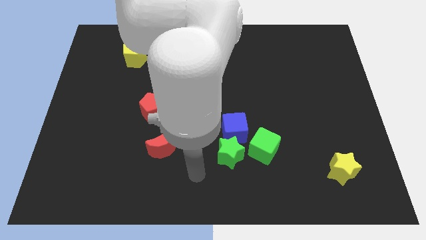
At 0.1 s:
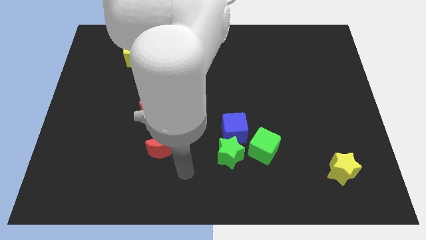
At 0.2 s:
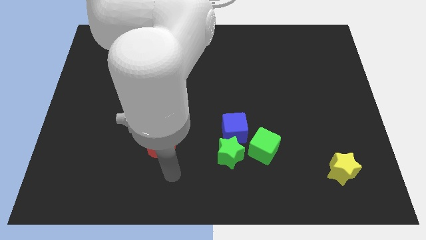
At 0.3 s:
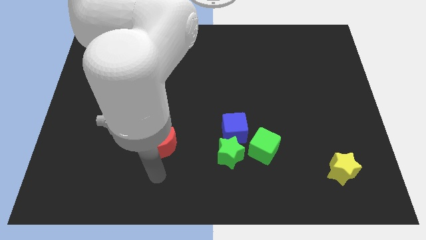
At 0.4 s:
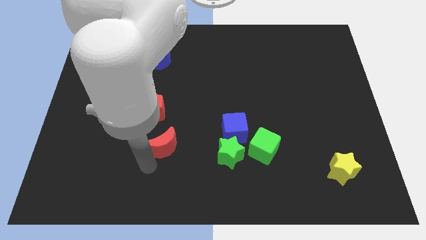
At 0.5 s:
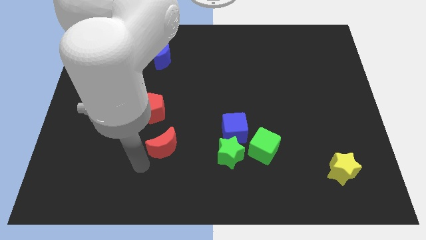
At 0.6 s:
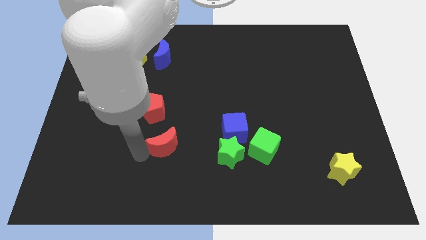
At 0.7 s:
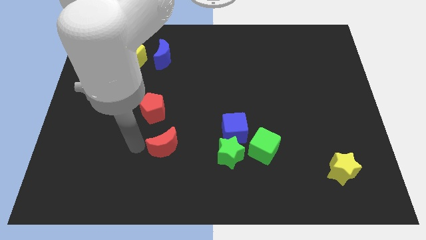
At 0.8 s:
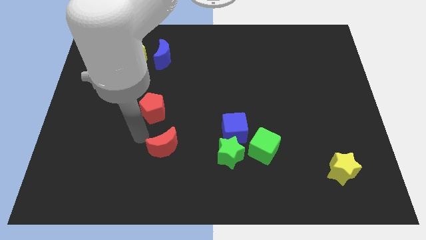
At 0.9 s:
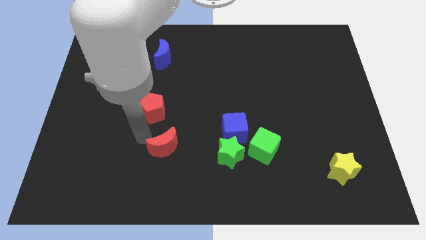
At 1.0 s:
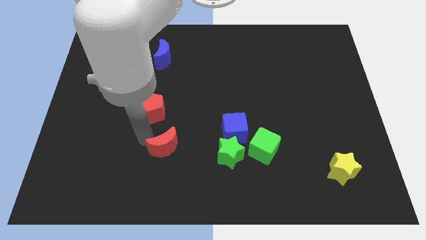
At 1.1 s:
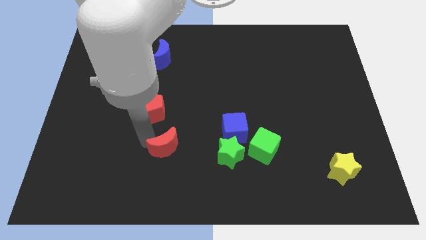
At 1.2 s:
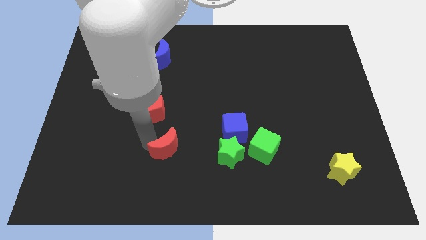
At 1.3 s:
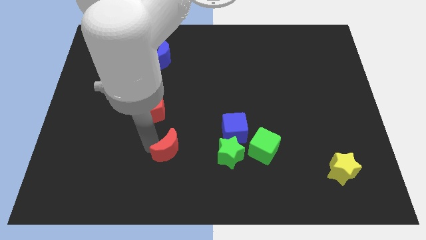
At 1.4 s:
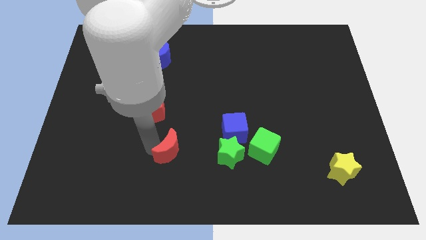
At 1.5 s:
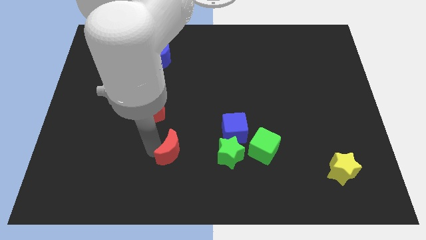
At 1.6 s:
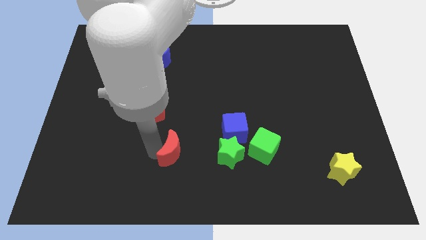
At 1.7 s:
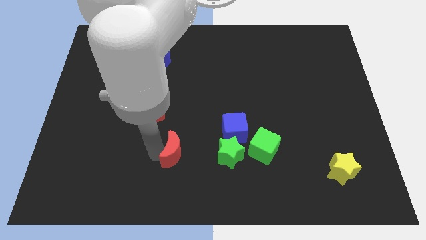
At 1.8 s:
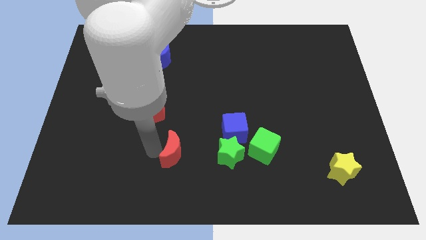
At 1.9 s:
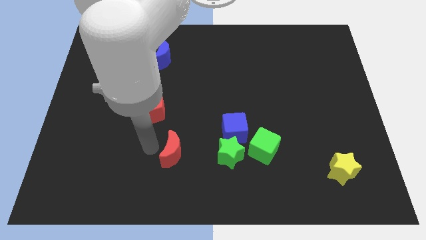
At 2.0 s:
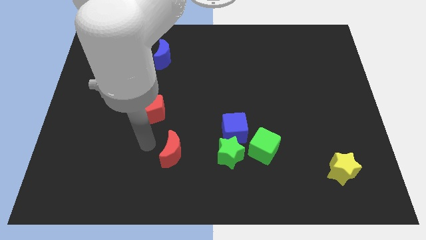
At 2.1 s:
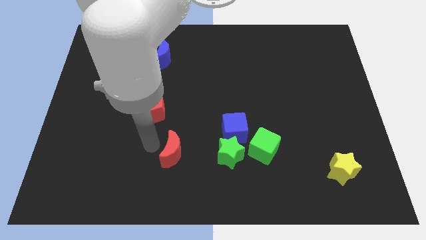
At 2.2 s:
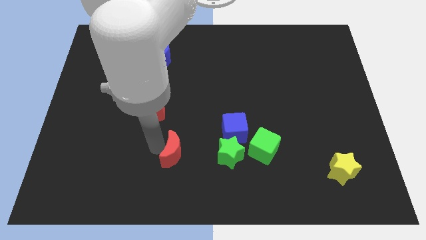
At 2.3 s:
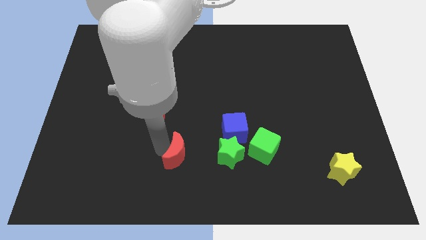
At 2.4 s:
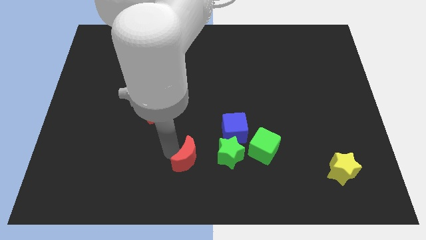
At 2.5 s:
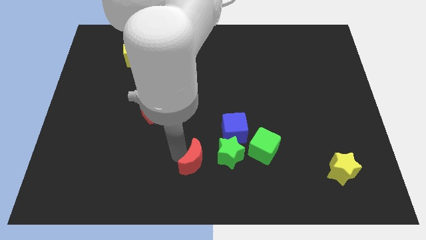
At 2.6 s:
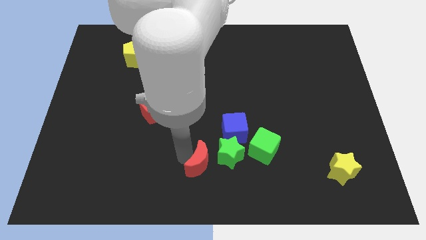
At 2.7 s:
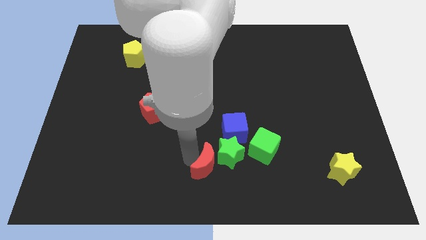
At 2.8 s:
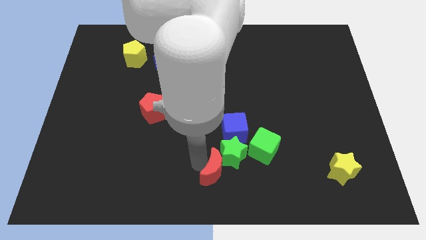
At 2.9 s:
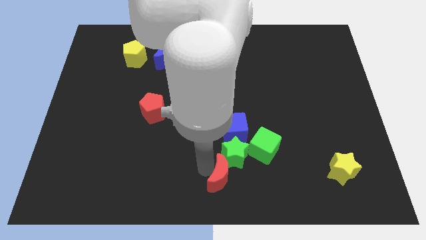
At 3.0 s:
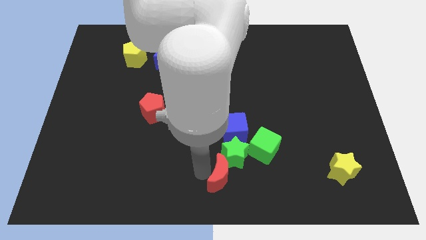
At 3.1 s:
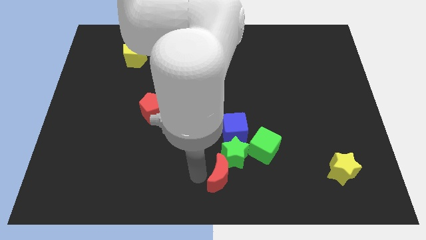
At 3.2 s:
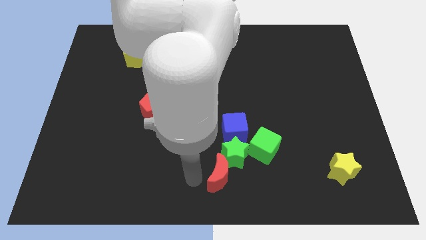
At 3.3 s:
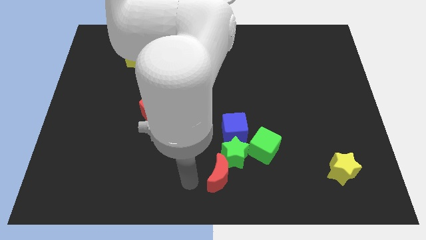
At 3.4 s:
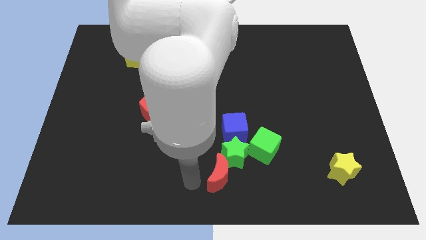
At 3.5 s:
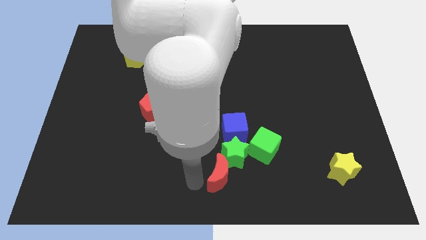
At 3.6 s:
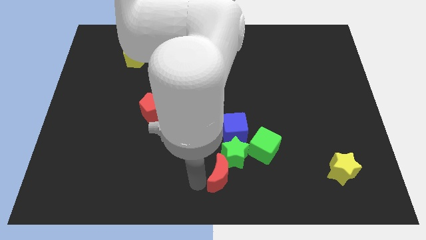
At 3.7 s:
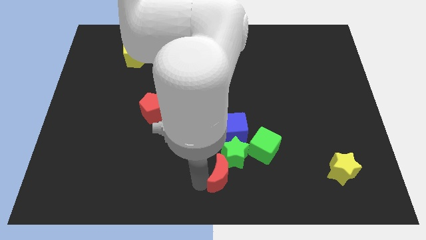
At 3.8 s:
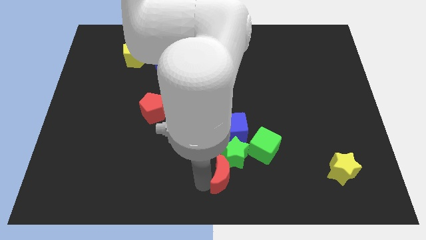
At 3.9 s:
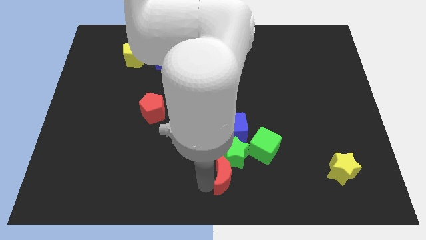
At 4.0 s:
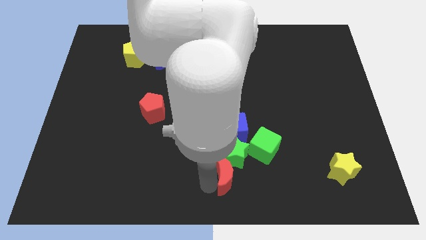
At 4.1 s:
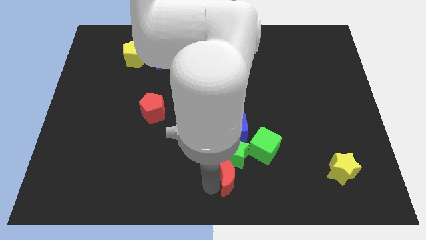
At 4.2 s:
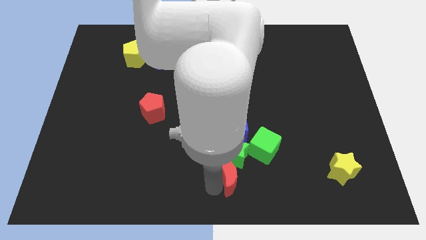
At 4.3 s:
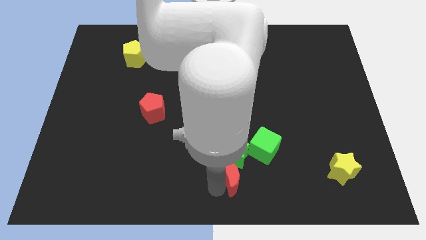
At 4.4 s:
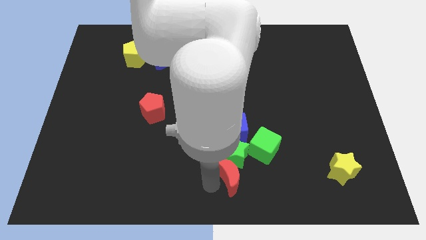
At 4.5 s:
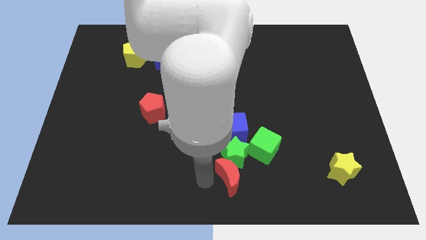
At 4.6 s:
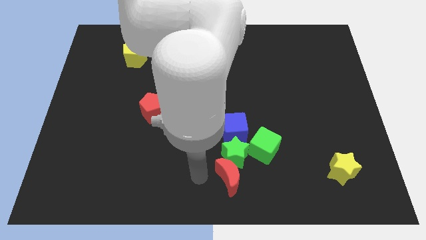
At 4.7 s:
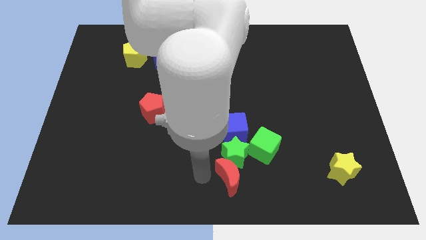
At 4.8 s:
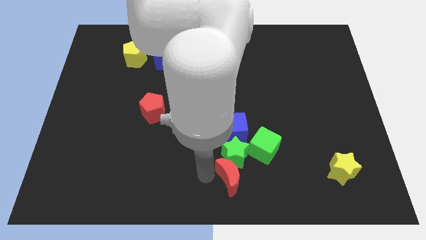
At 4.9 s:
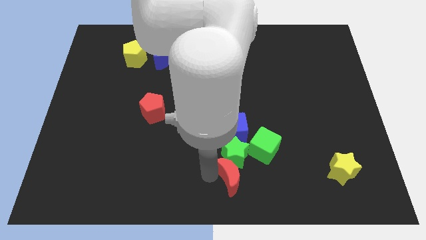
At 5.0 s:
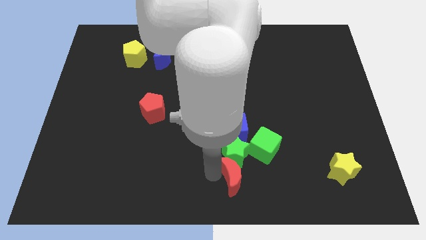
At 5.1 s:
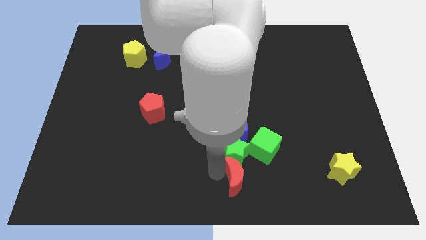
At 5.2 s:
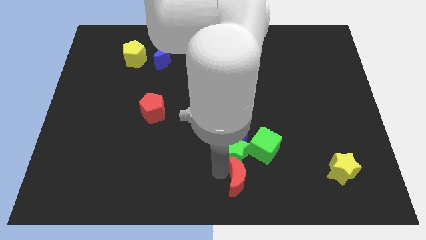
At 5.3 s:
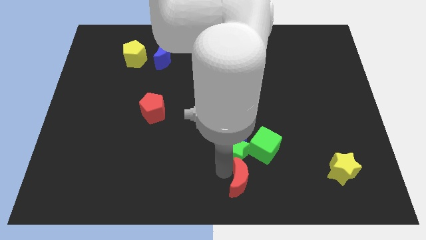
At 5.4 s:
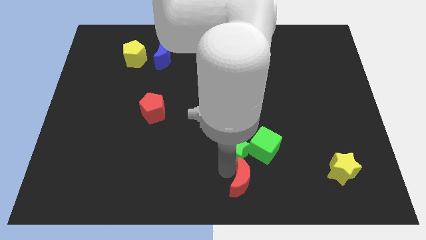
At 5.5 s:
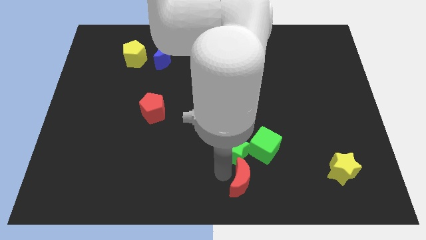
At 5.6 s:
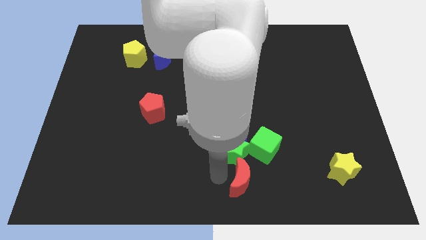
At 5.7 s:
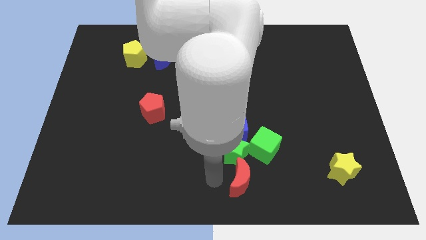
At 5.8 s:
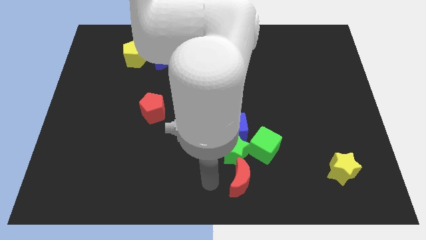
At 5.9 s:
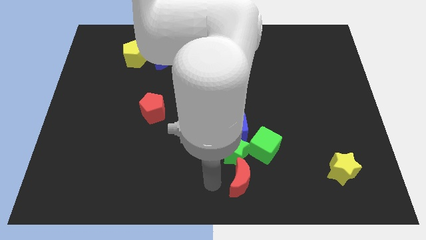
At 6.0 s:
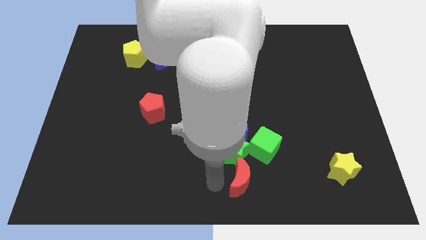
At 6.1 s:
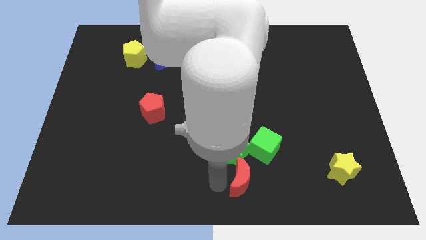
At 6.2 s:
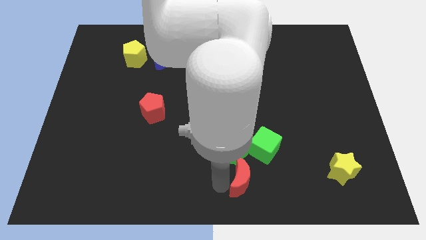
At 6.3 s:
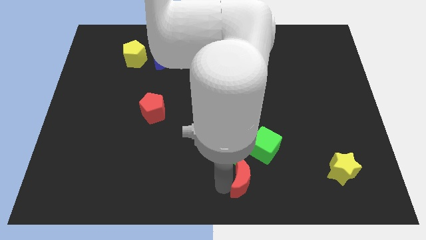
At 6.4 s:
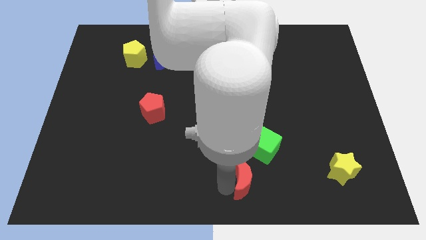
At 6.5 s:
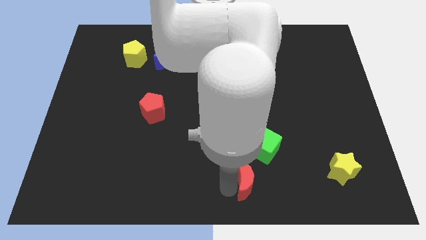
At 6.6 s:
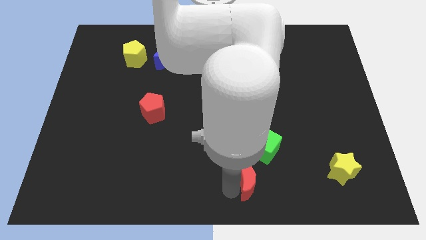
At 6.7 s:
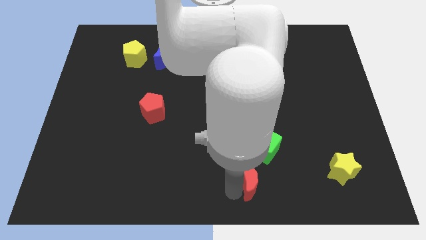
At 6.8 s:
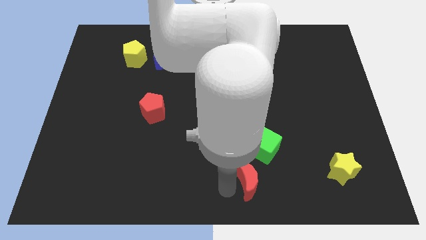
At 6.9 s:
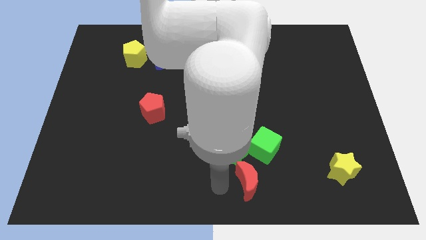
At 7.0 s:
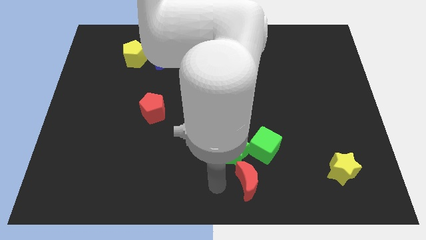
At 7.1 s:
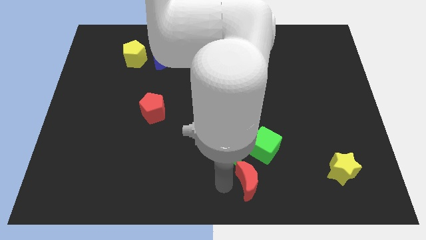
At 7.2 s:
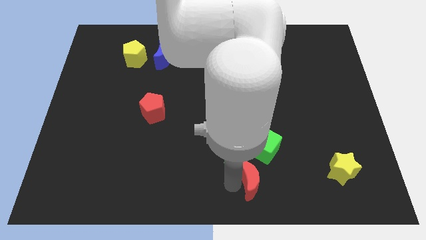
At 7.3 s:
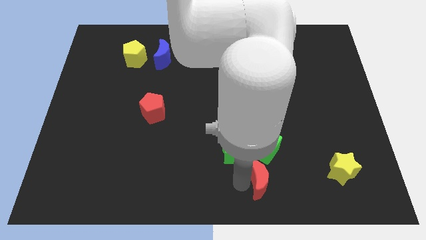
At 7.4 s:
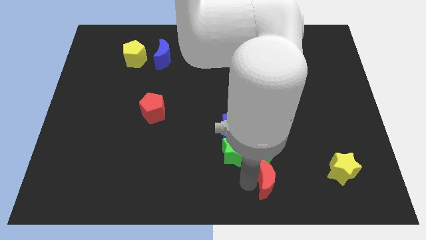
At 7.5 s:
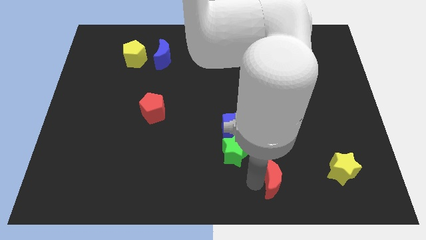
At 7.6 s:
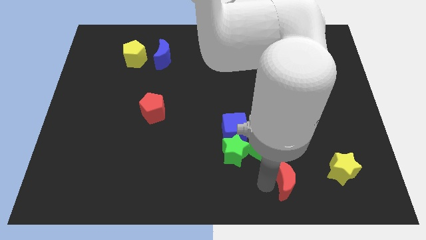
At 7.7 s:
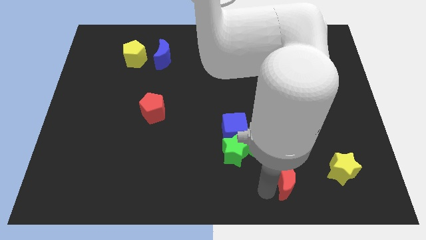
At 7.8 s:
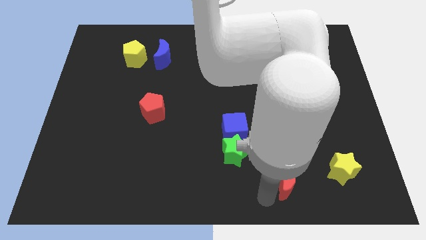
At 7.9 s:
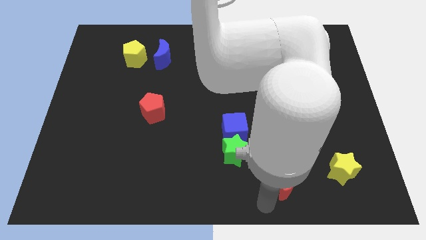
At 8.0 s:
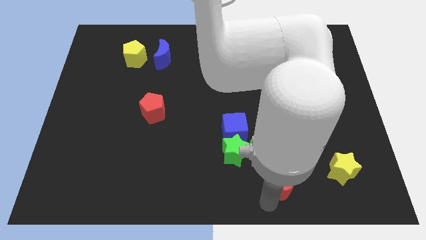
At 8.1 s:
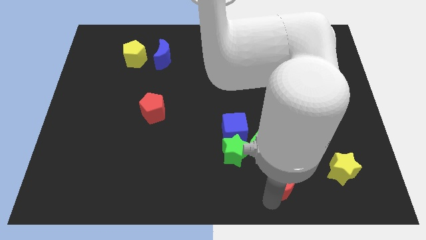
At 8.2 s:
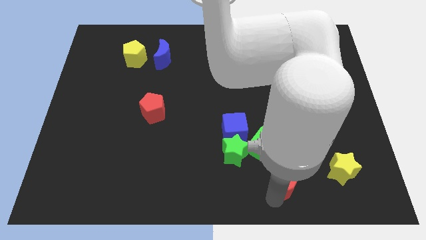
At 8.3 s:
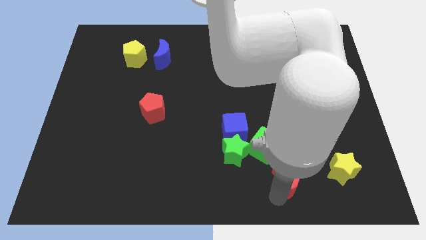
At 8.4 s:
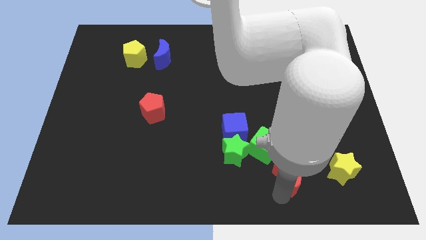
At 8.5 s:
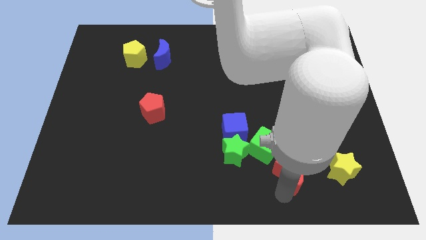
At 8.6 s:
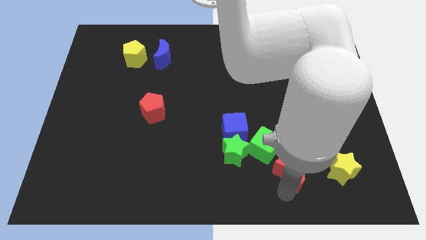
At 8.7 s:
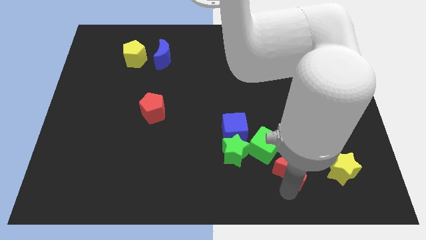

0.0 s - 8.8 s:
put the red moon right of the green star
